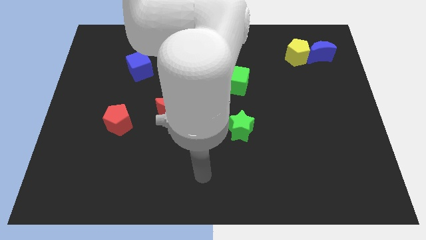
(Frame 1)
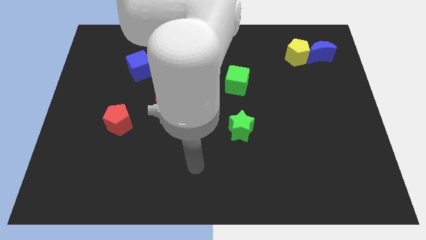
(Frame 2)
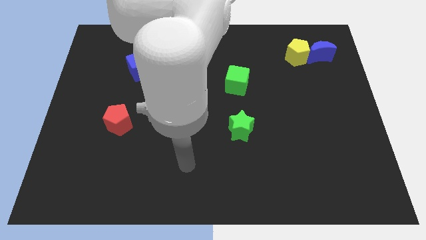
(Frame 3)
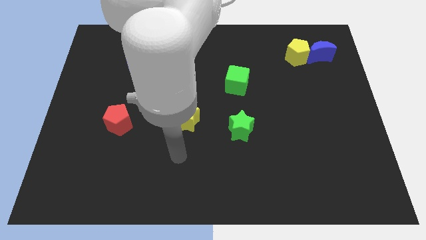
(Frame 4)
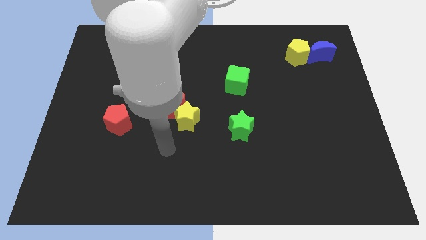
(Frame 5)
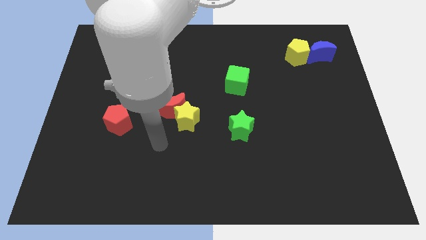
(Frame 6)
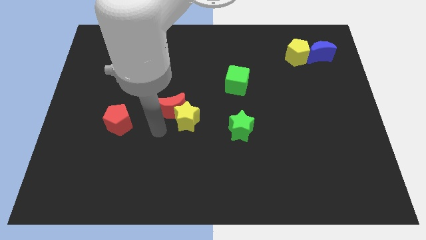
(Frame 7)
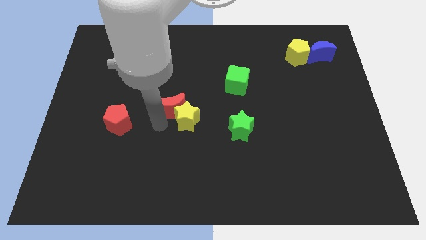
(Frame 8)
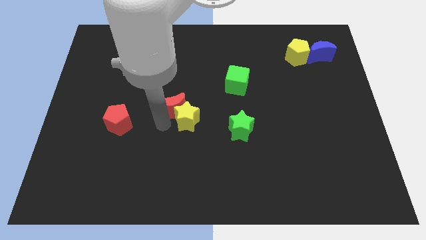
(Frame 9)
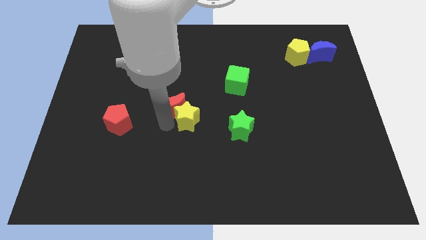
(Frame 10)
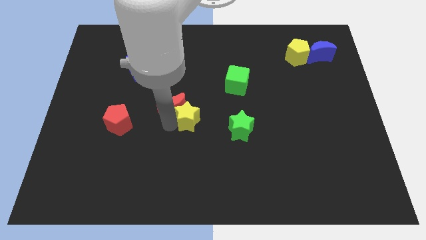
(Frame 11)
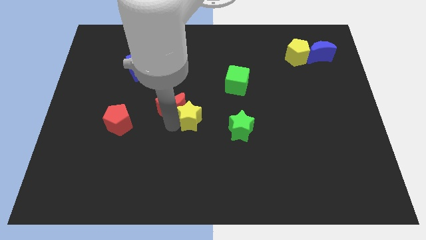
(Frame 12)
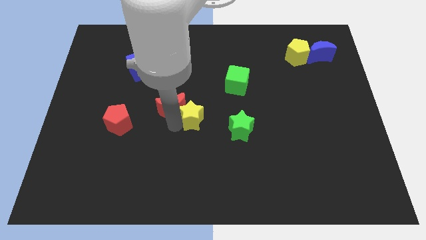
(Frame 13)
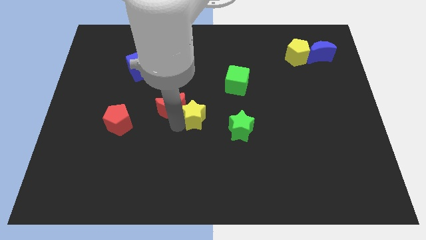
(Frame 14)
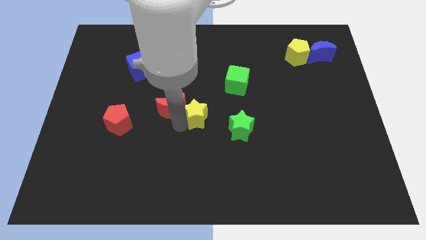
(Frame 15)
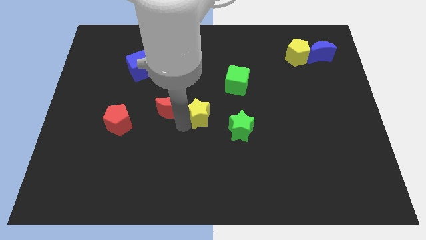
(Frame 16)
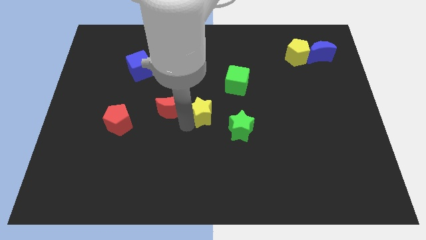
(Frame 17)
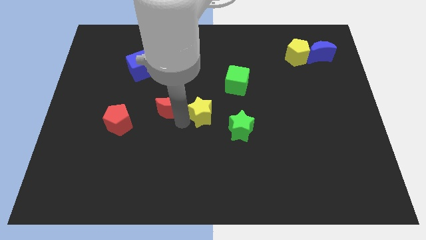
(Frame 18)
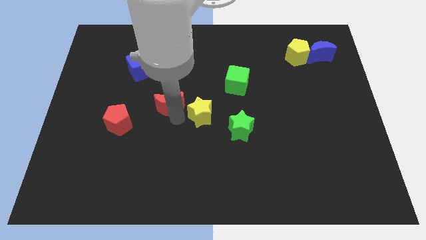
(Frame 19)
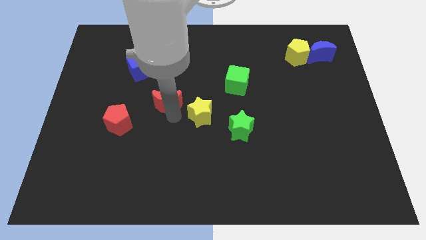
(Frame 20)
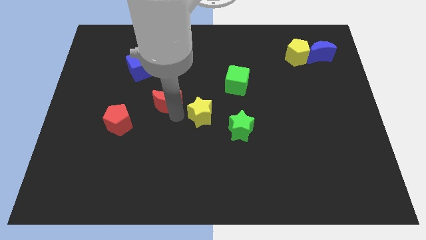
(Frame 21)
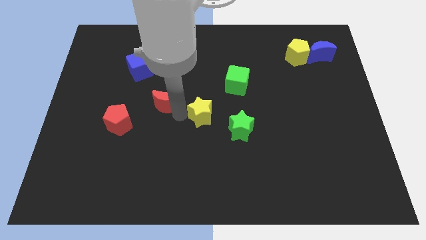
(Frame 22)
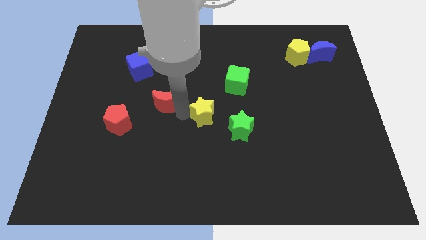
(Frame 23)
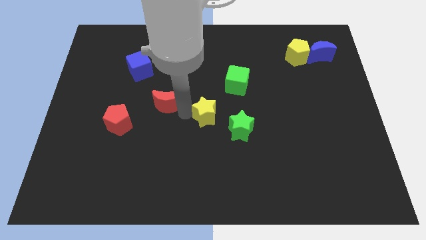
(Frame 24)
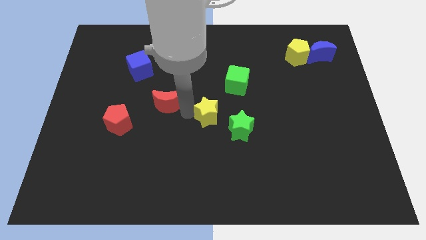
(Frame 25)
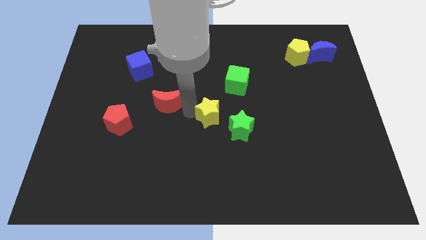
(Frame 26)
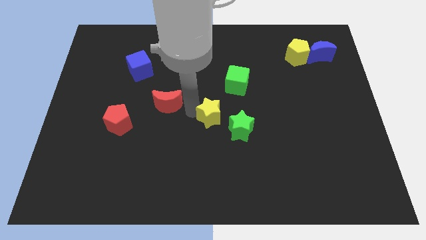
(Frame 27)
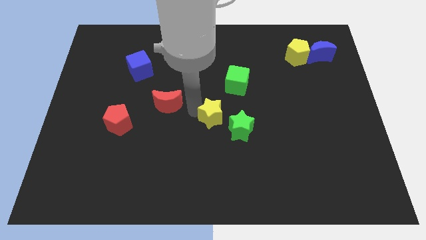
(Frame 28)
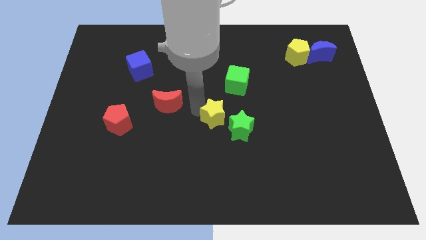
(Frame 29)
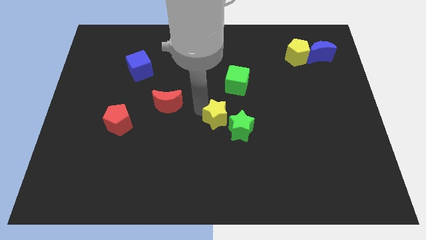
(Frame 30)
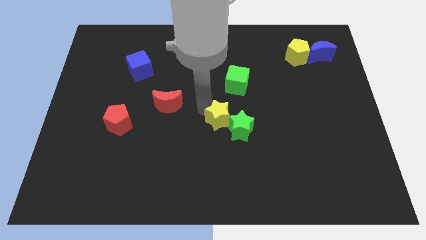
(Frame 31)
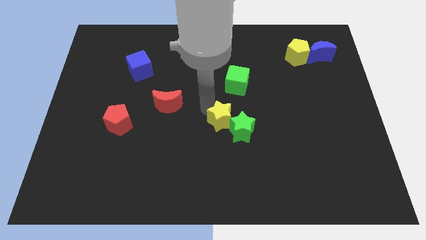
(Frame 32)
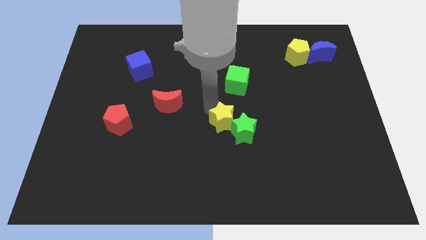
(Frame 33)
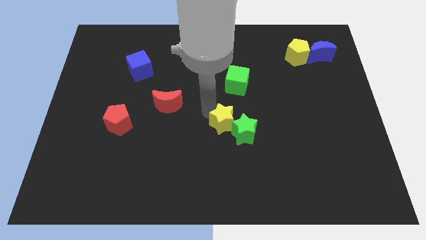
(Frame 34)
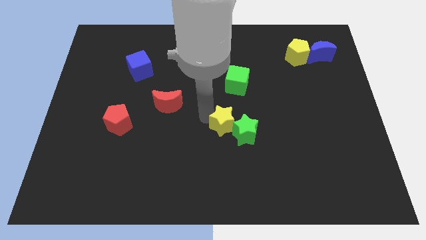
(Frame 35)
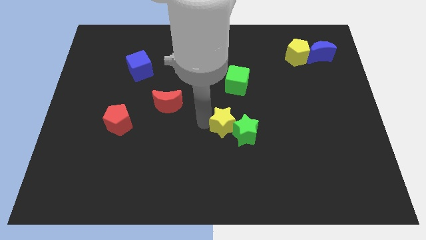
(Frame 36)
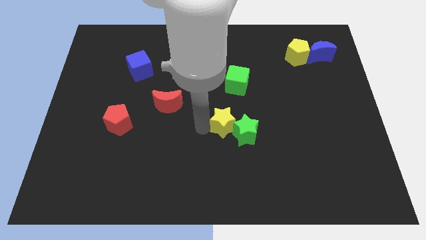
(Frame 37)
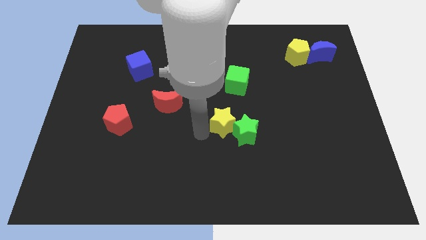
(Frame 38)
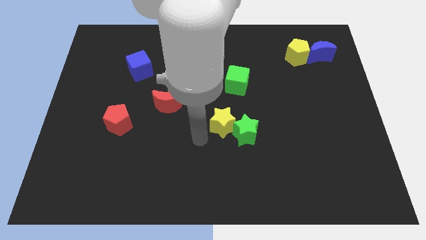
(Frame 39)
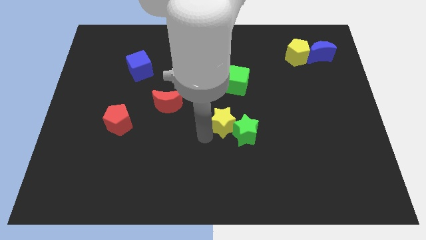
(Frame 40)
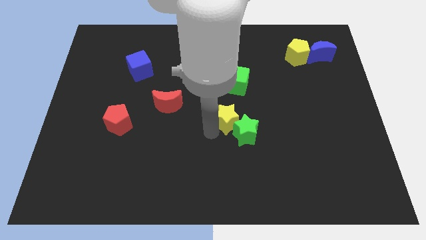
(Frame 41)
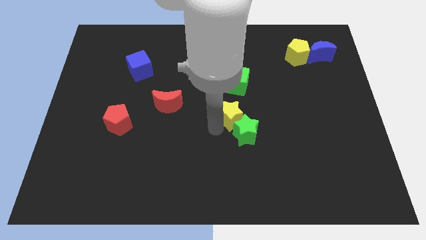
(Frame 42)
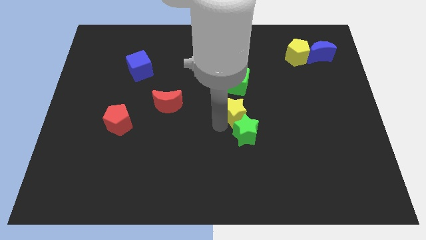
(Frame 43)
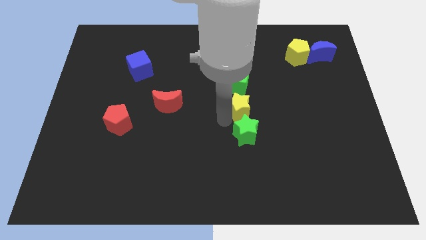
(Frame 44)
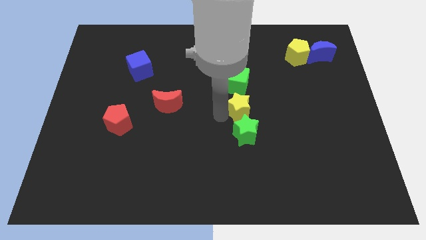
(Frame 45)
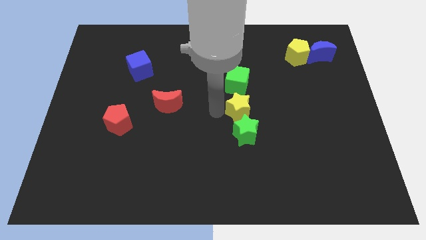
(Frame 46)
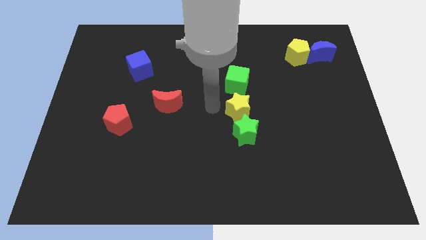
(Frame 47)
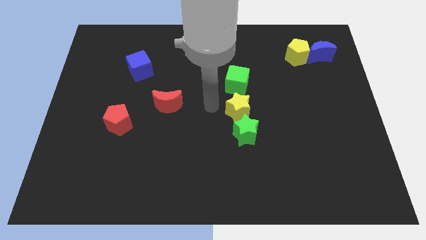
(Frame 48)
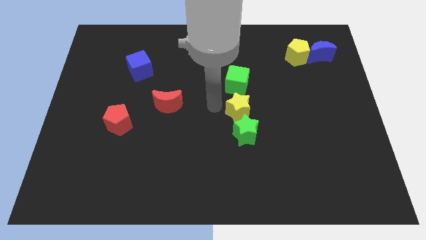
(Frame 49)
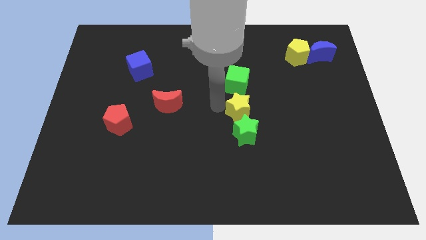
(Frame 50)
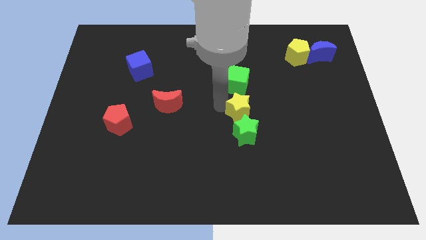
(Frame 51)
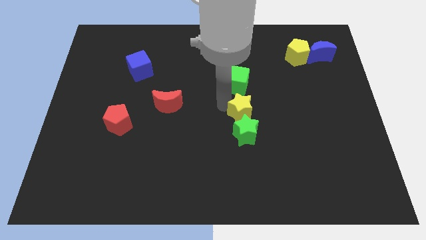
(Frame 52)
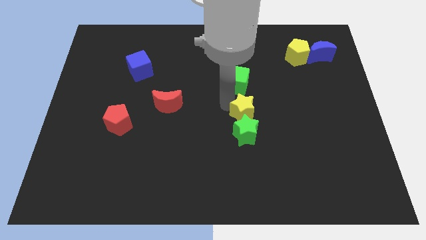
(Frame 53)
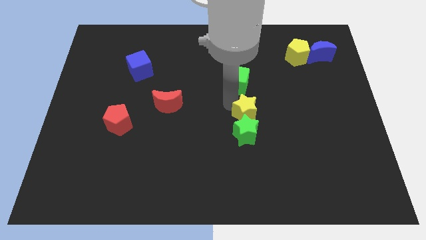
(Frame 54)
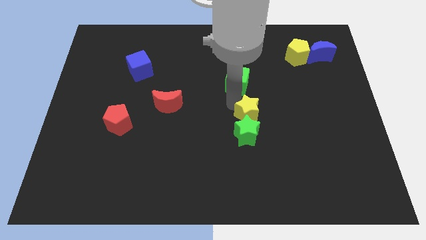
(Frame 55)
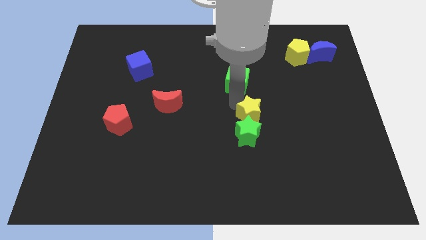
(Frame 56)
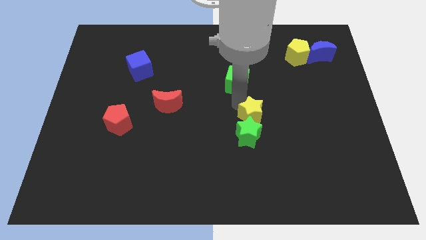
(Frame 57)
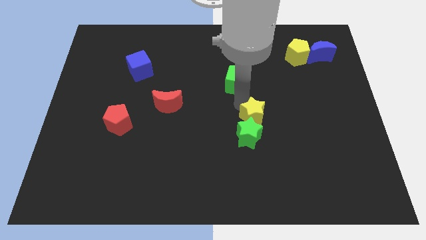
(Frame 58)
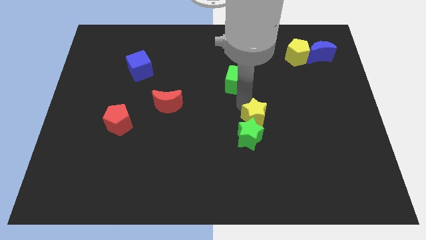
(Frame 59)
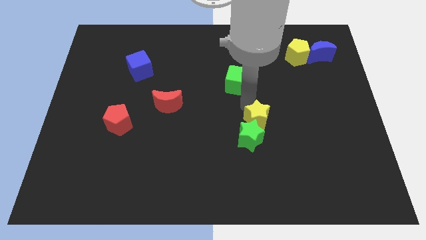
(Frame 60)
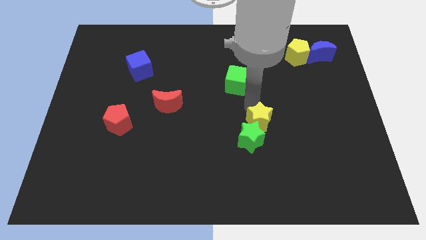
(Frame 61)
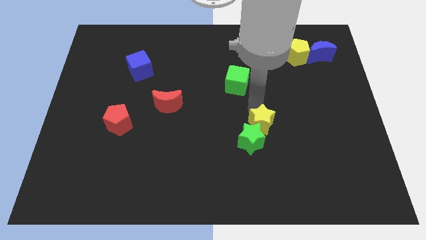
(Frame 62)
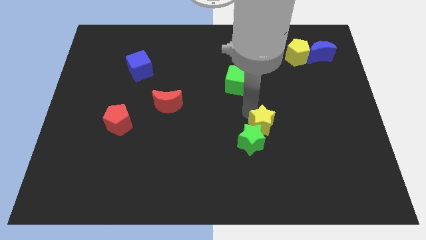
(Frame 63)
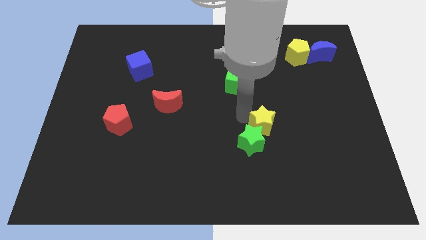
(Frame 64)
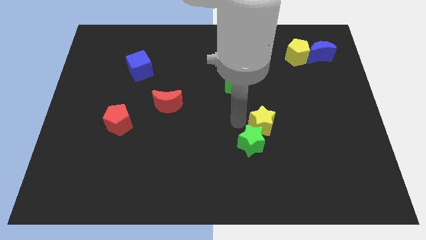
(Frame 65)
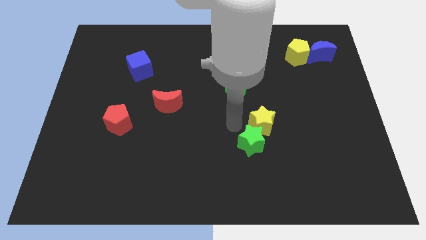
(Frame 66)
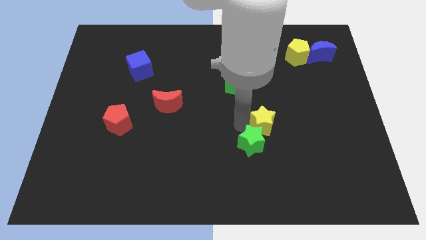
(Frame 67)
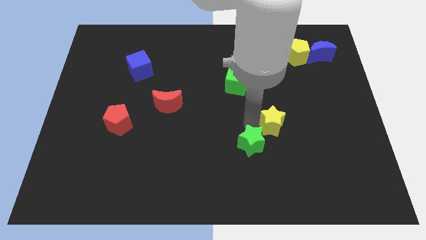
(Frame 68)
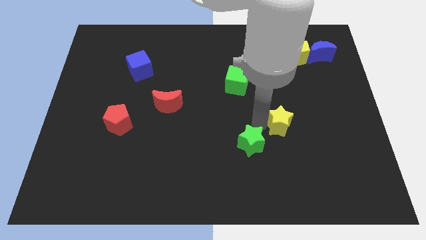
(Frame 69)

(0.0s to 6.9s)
move the yellow star right

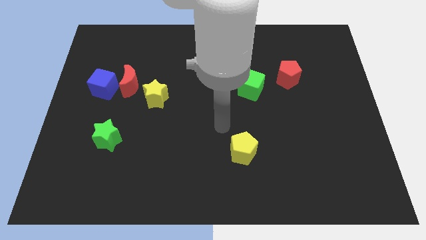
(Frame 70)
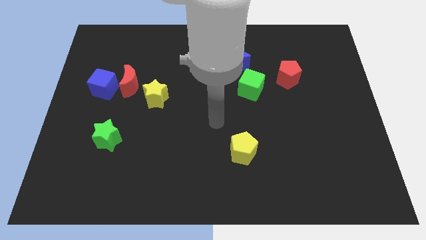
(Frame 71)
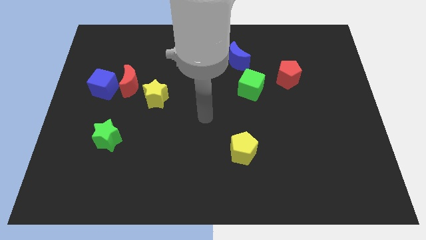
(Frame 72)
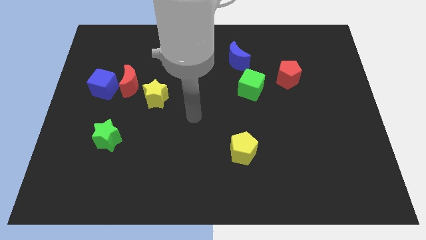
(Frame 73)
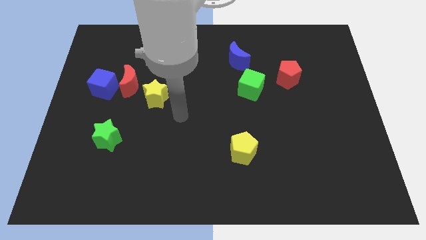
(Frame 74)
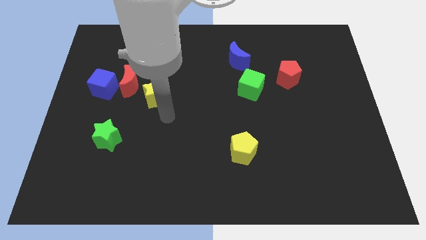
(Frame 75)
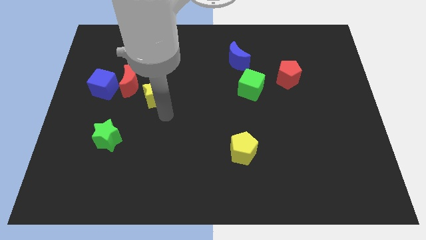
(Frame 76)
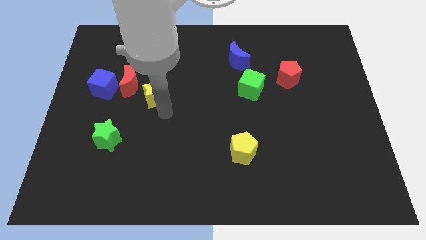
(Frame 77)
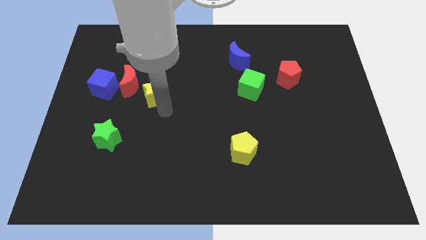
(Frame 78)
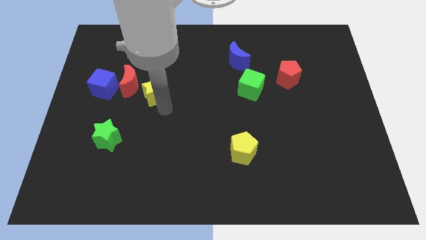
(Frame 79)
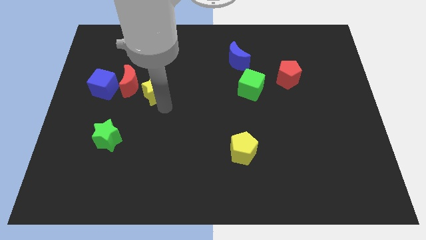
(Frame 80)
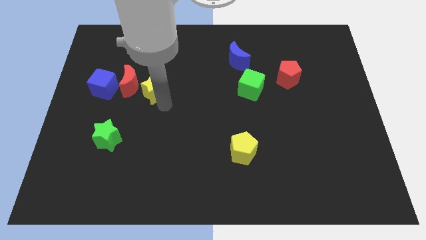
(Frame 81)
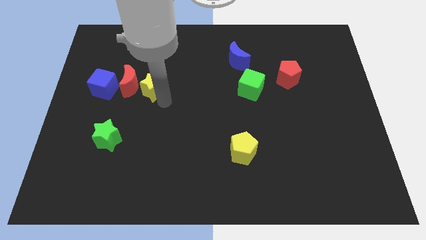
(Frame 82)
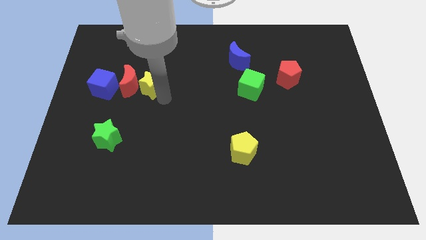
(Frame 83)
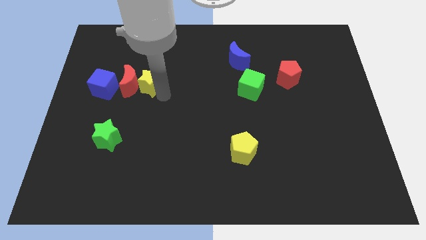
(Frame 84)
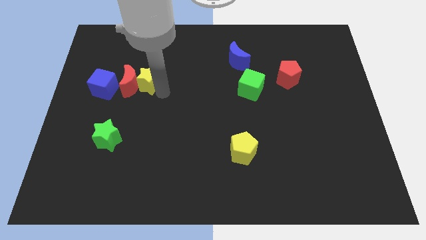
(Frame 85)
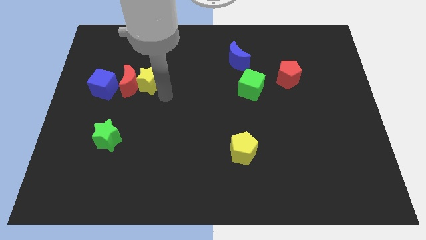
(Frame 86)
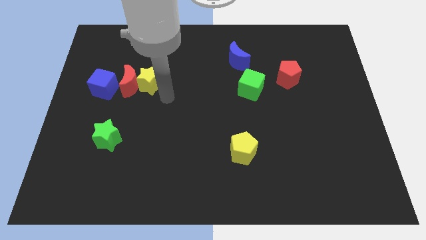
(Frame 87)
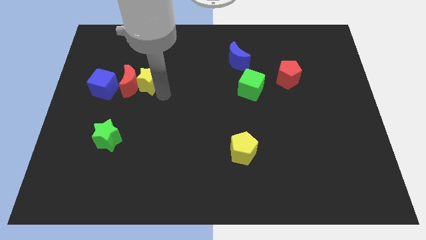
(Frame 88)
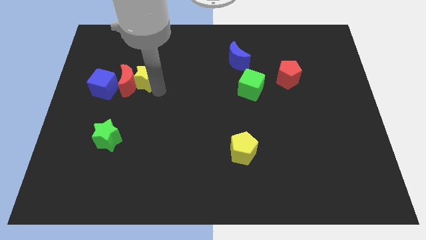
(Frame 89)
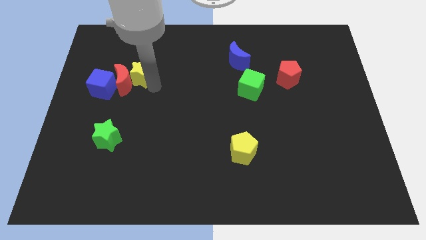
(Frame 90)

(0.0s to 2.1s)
push the yellow star up and left diagonally a little bit
